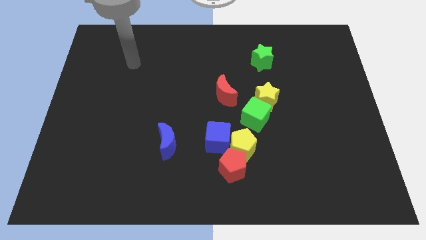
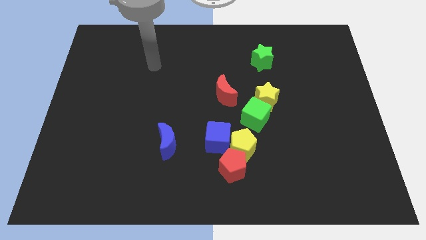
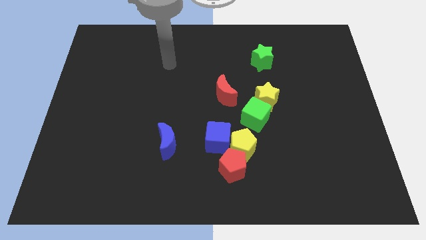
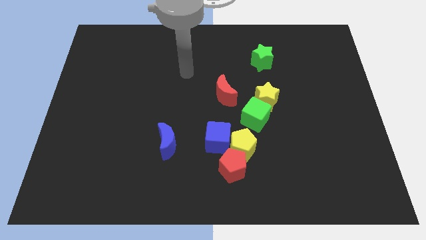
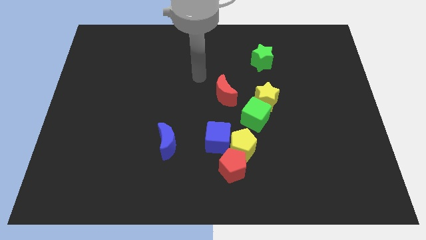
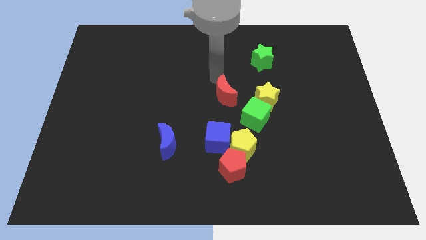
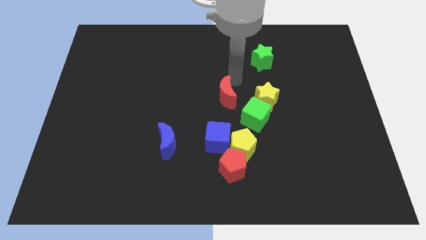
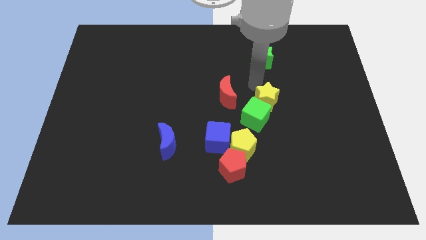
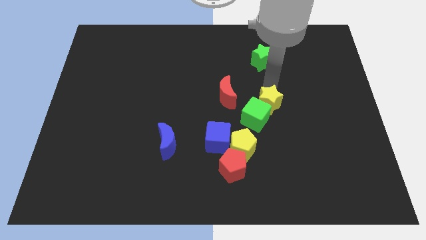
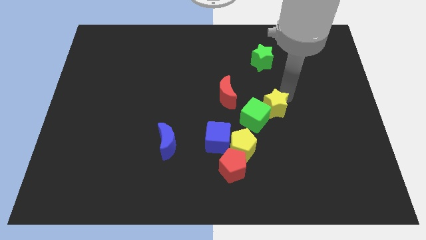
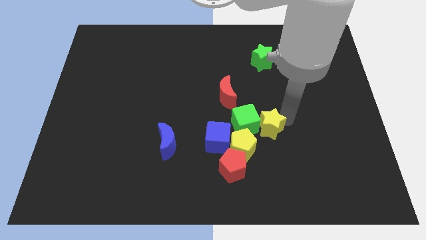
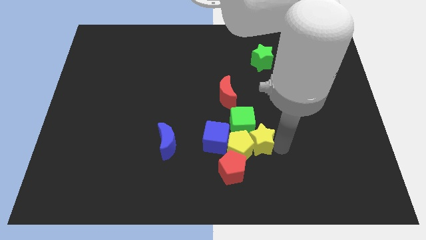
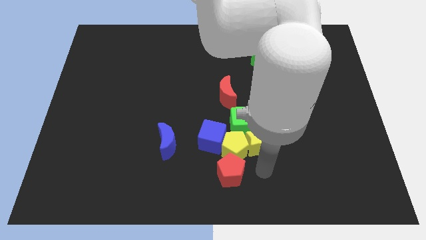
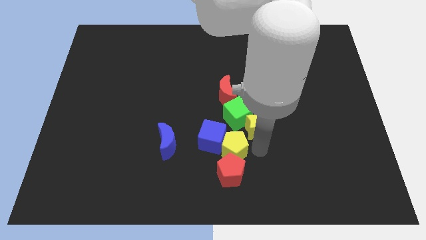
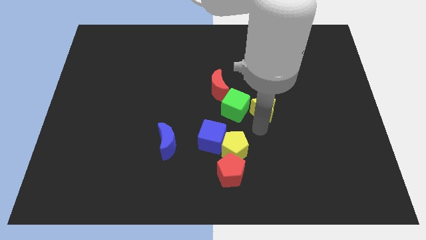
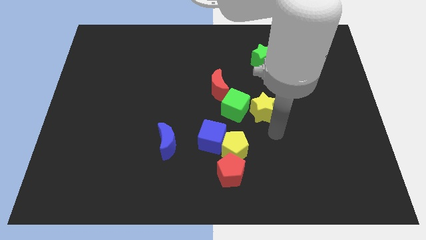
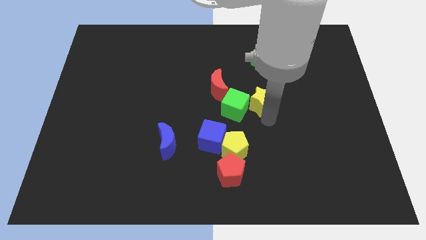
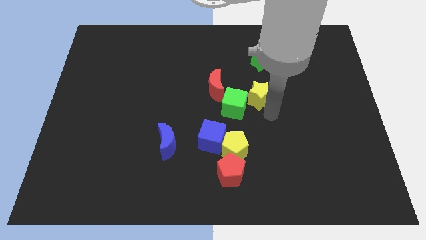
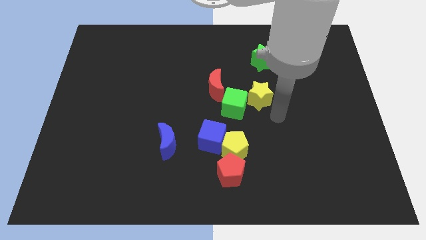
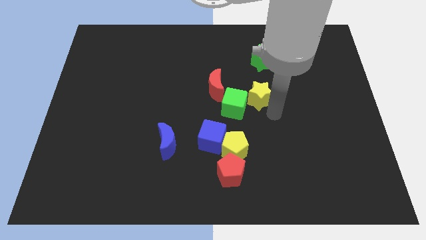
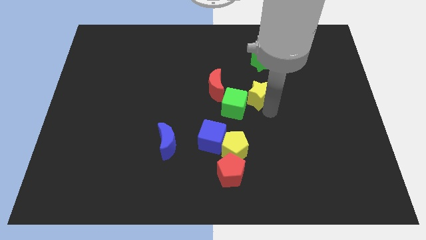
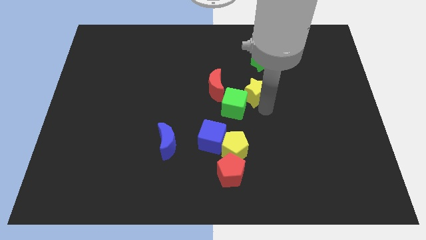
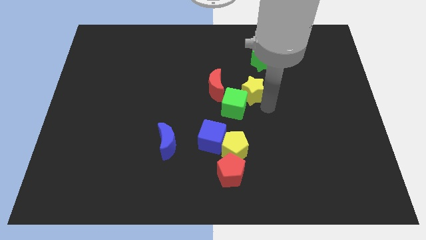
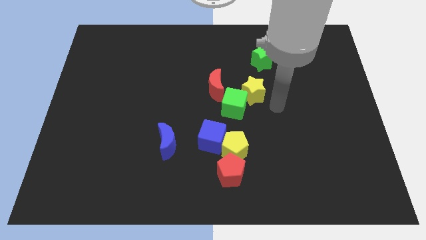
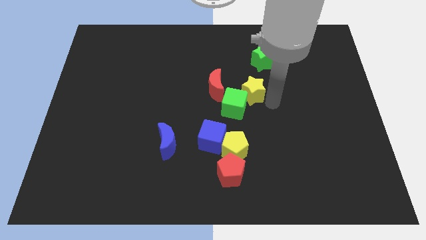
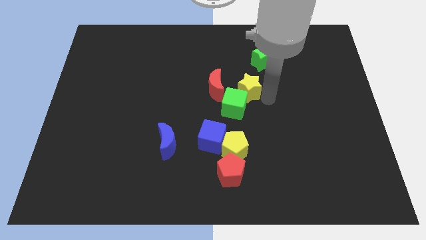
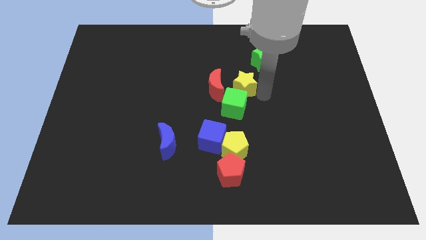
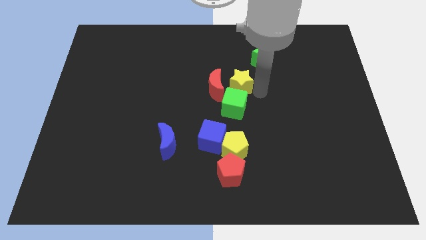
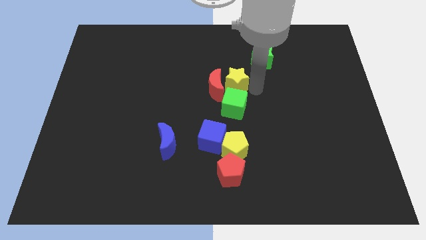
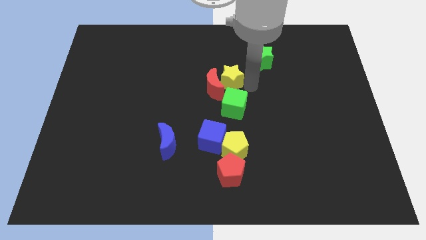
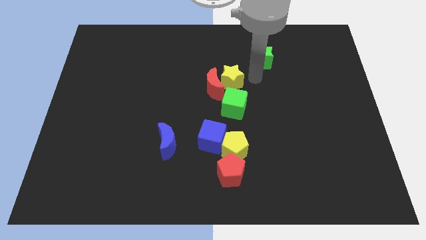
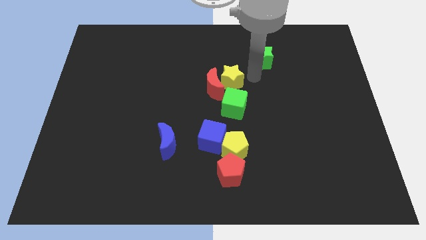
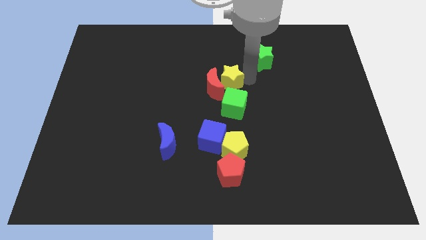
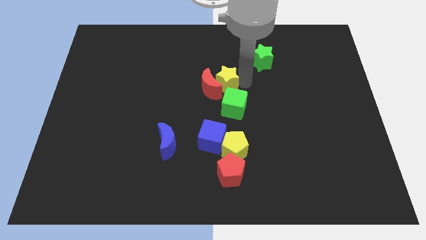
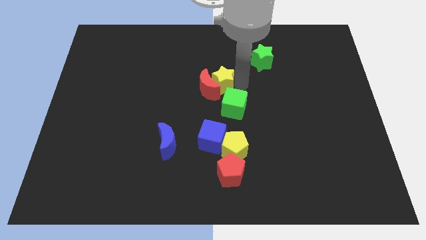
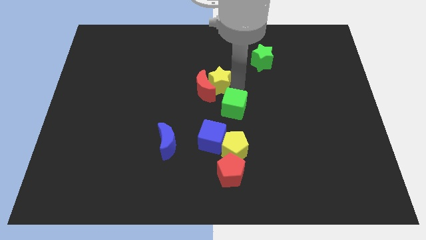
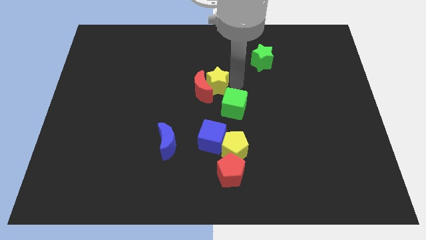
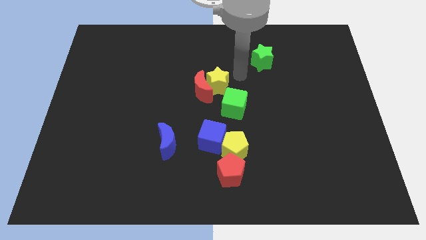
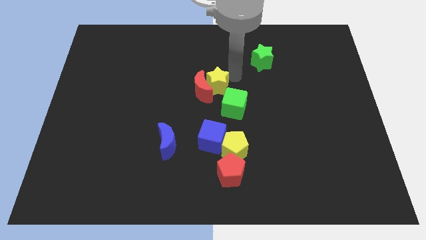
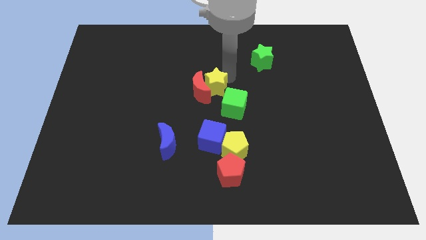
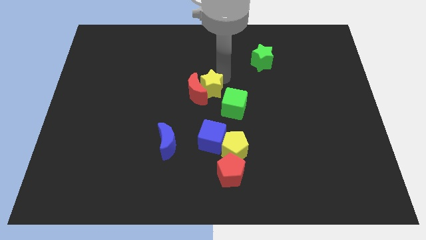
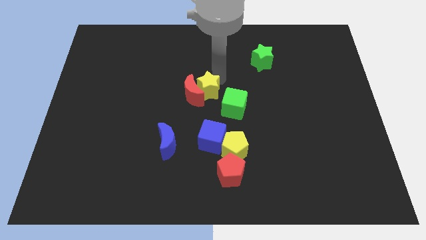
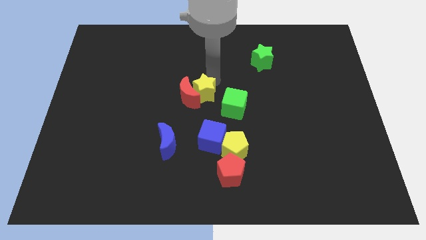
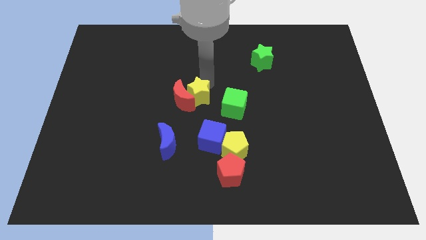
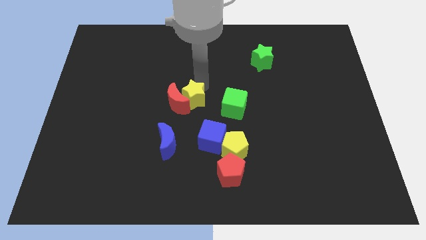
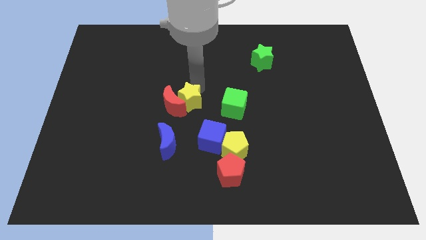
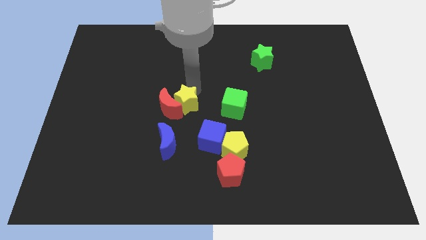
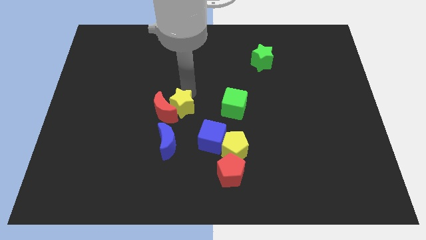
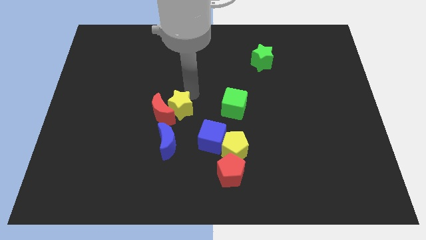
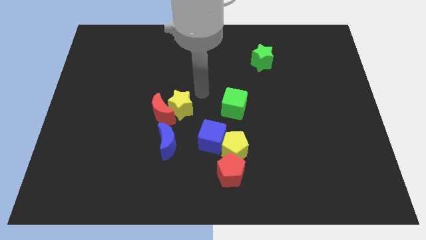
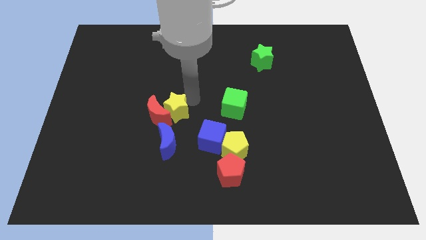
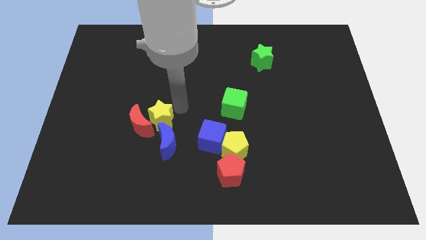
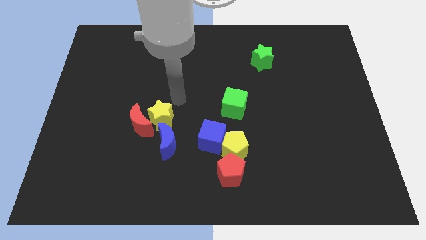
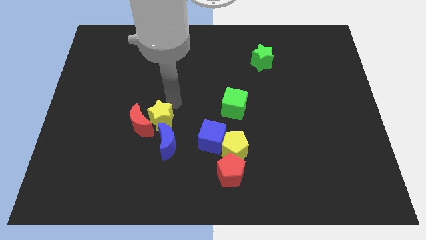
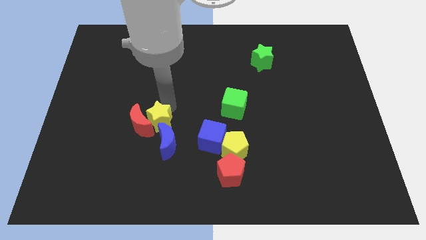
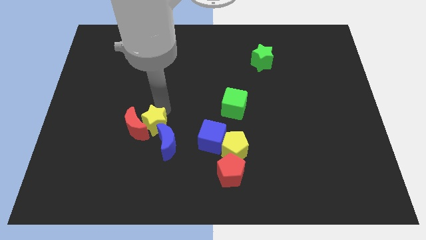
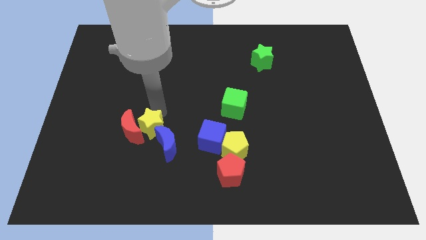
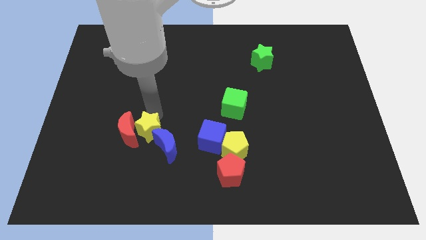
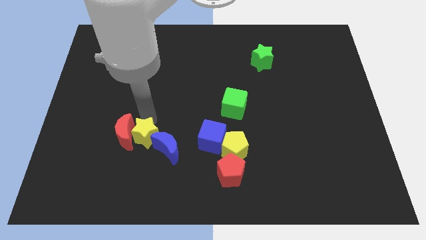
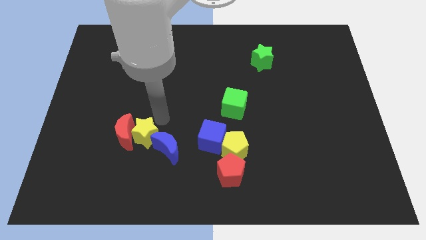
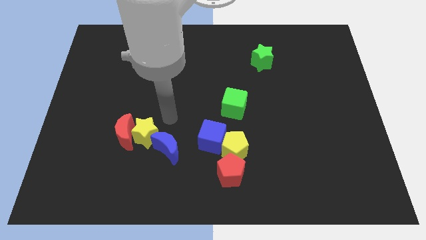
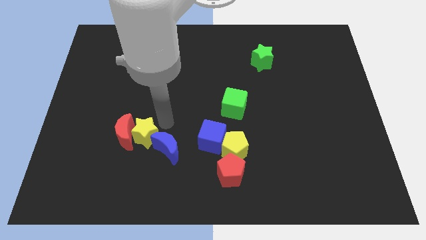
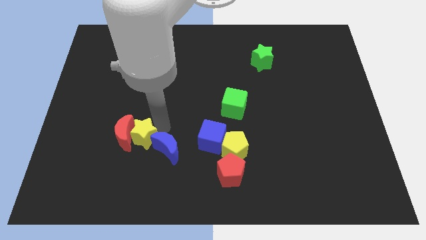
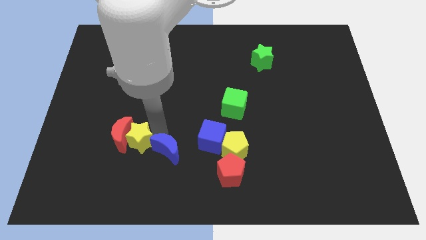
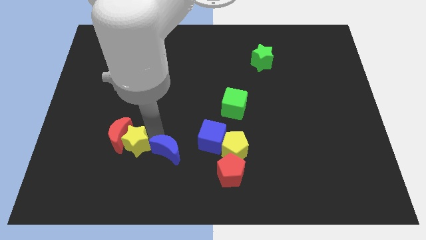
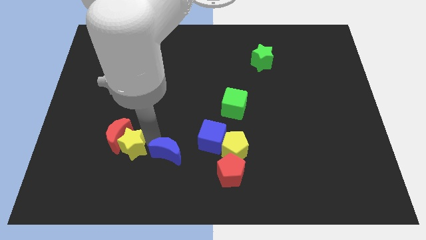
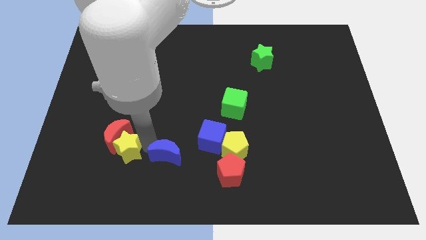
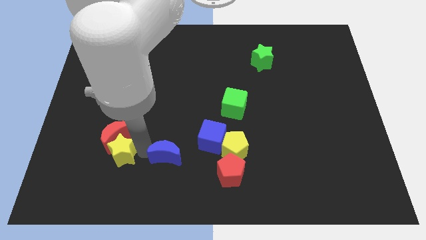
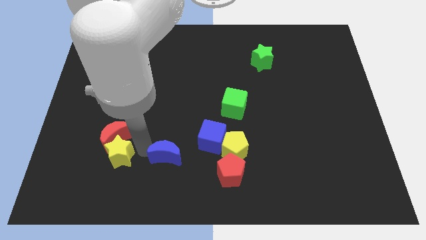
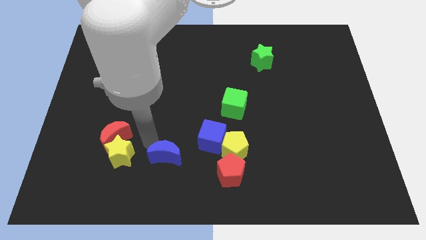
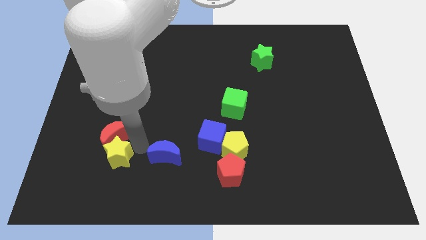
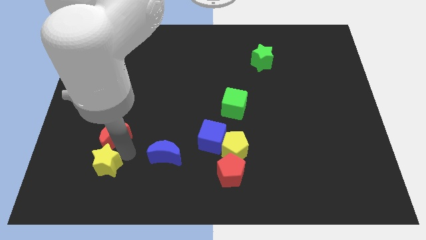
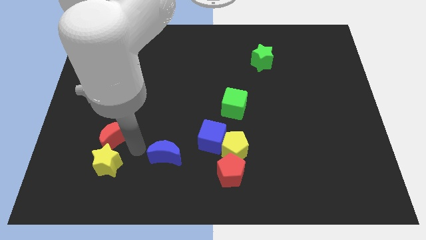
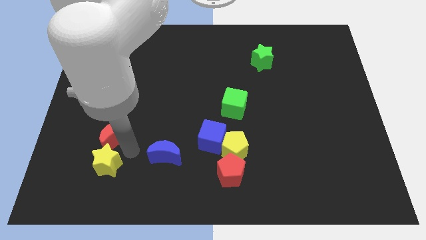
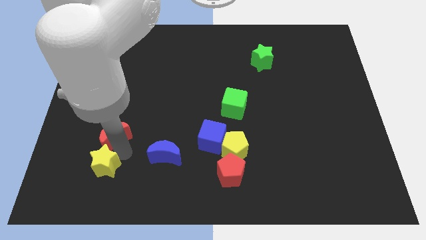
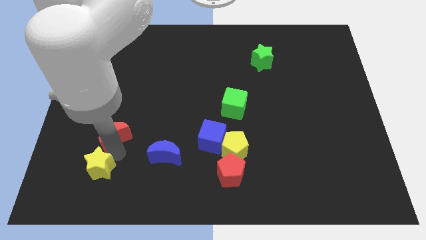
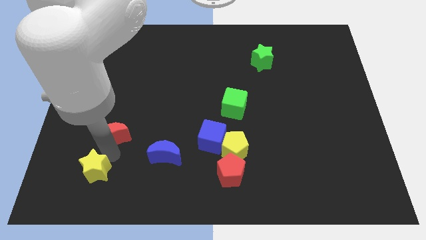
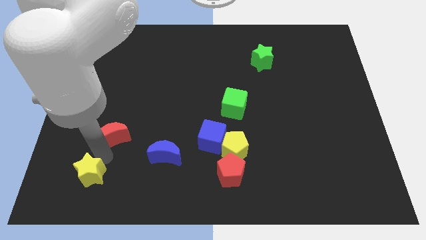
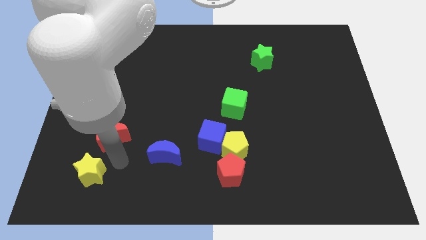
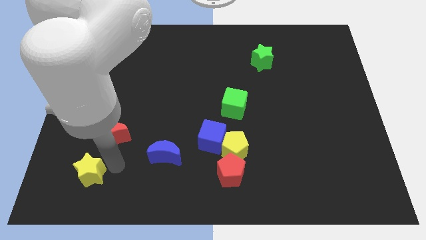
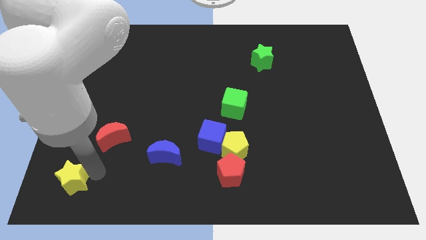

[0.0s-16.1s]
put the yellow star to the bottom left corner
